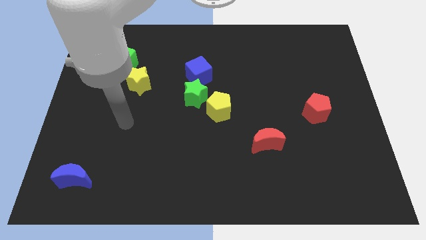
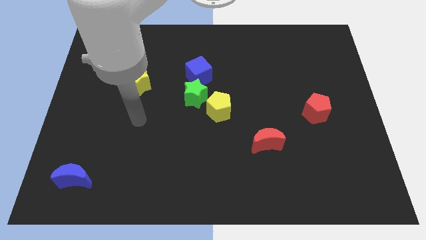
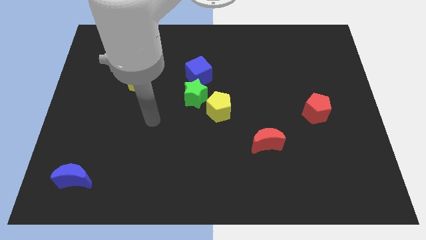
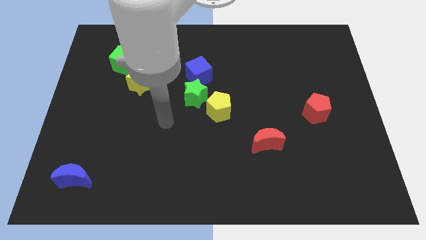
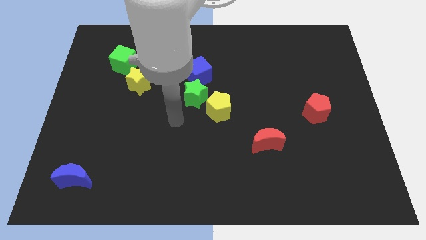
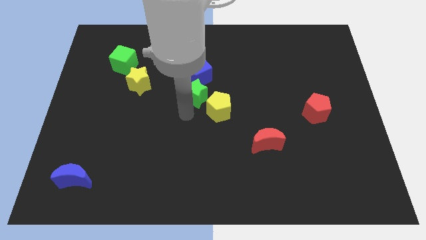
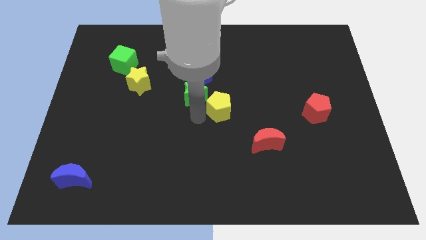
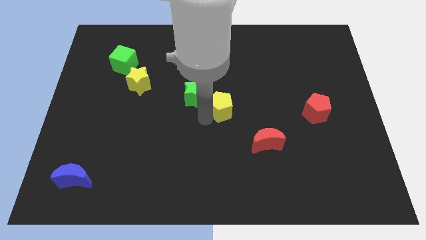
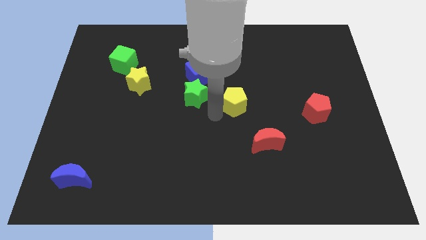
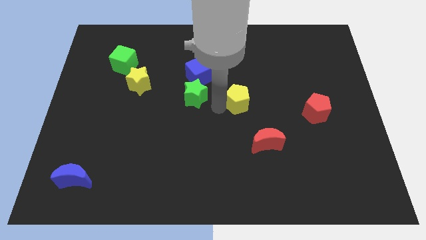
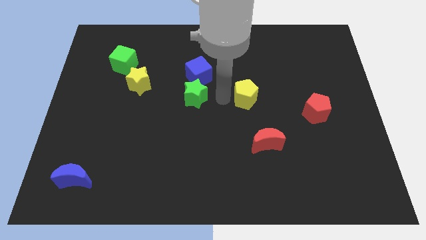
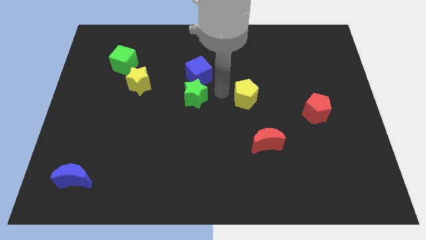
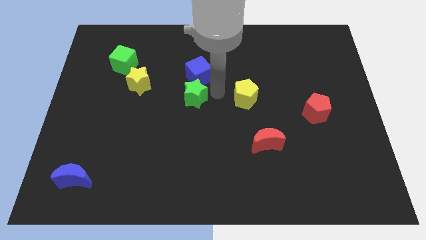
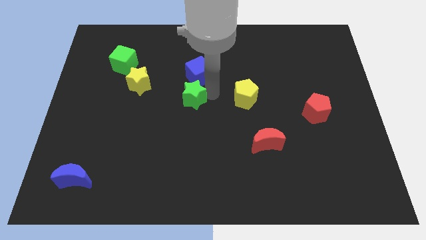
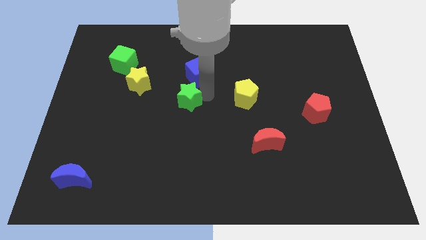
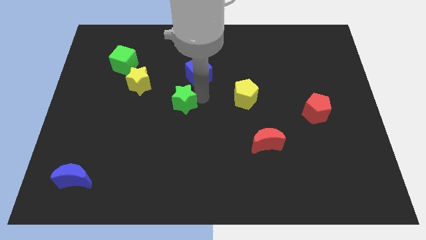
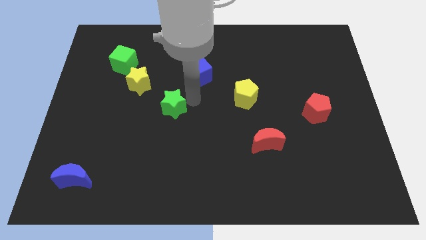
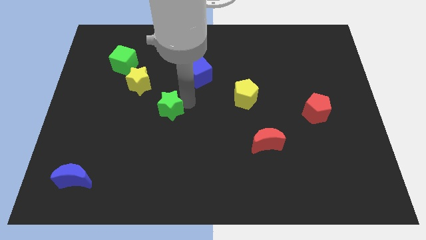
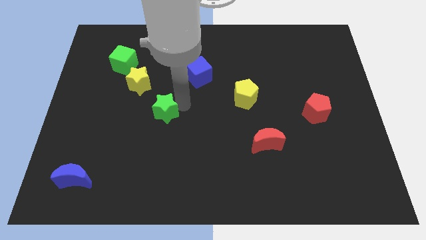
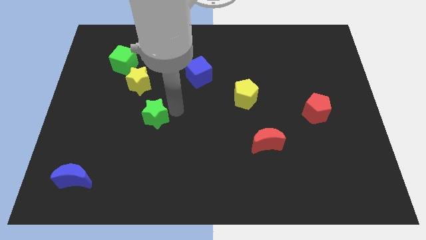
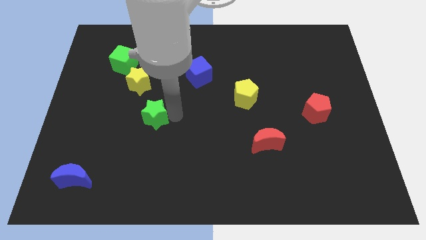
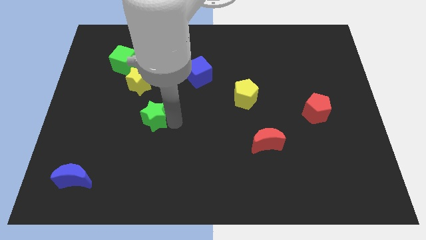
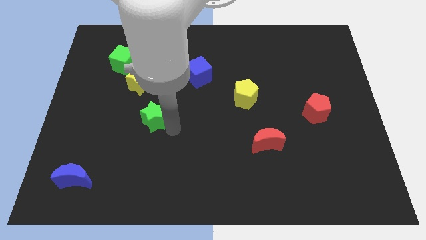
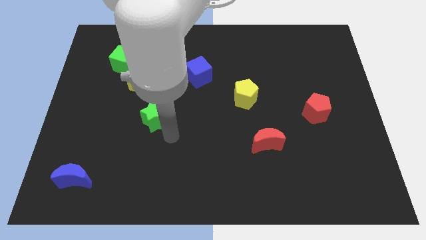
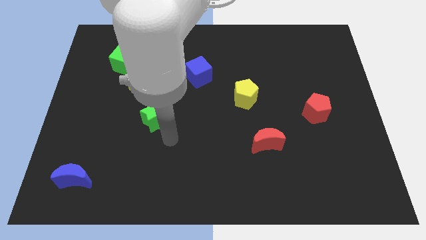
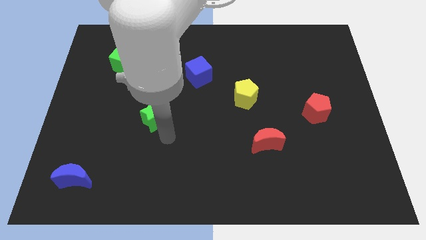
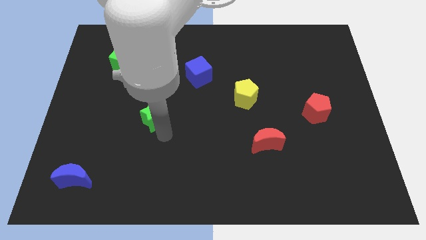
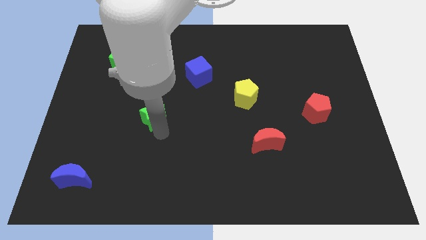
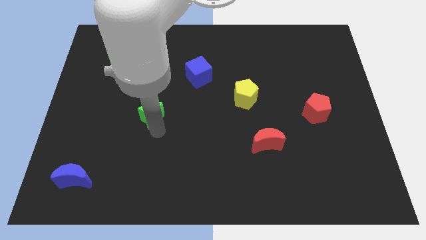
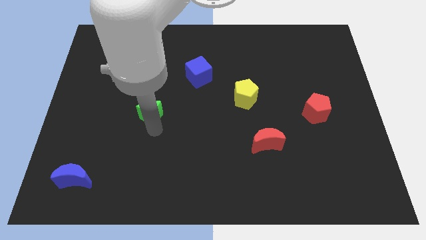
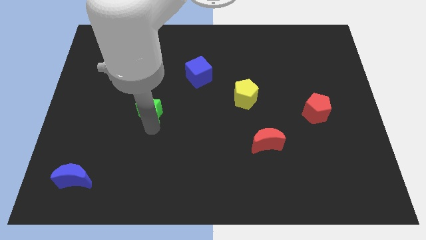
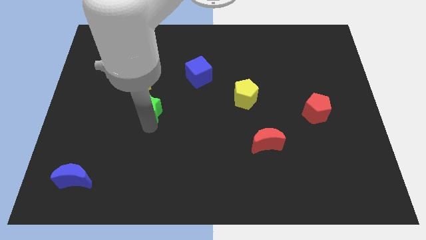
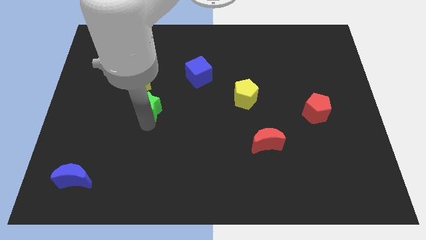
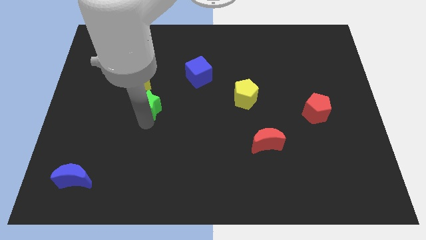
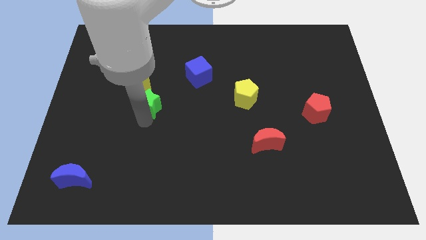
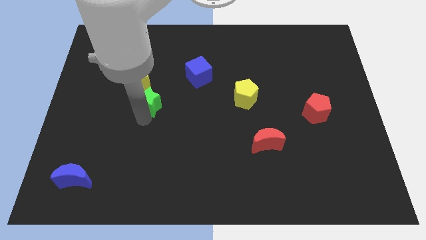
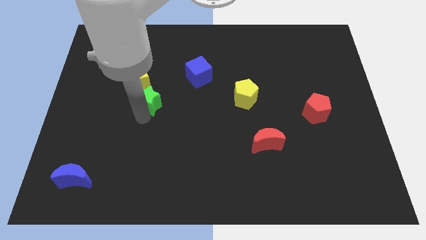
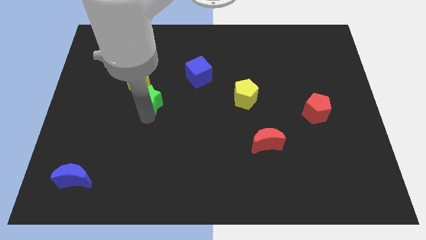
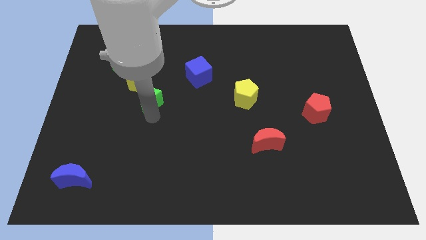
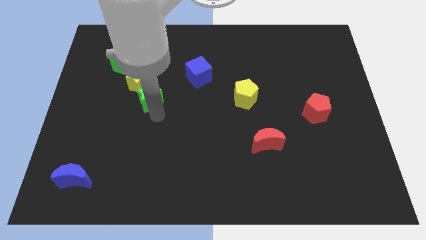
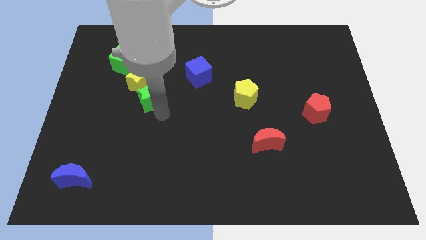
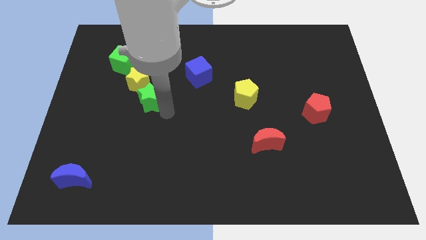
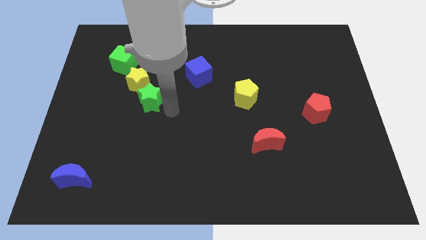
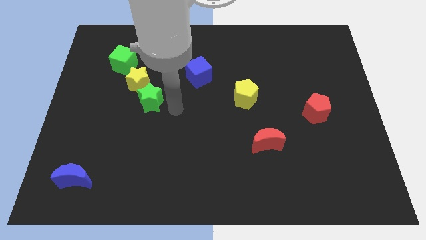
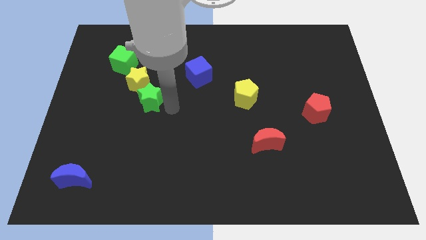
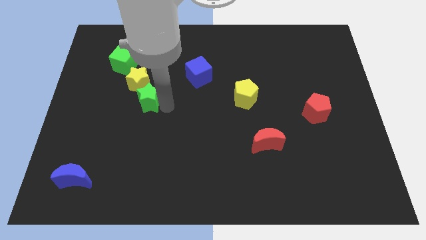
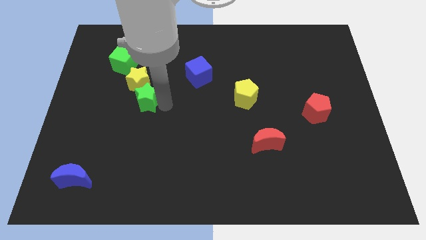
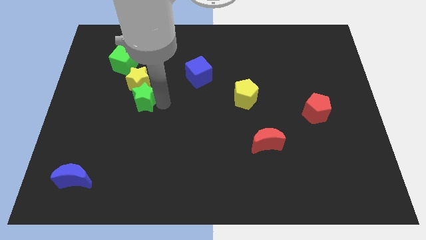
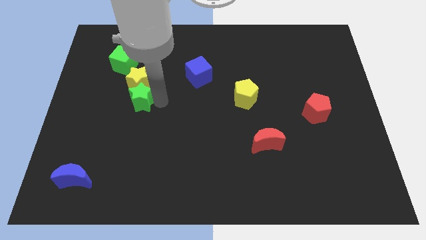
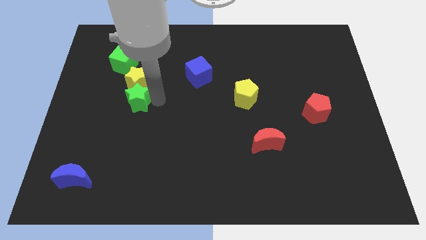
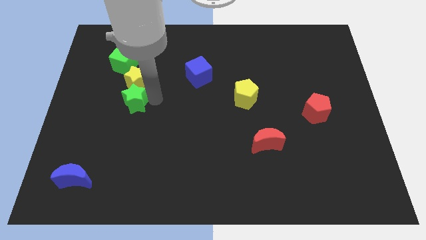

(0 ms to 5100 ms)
push the green star to the bottom of the green cube

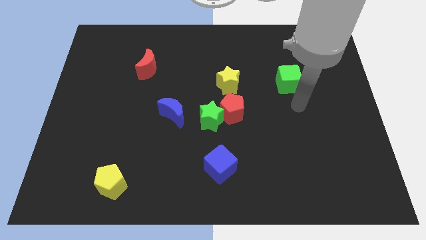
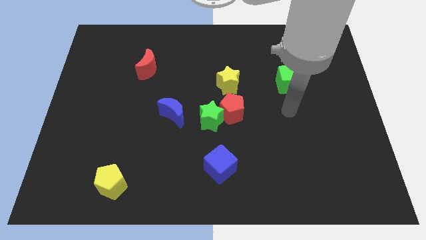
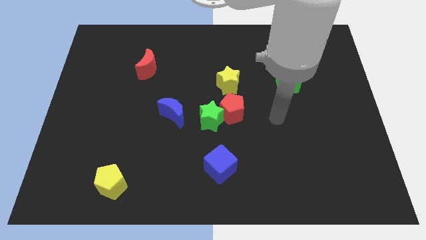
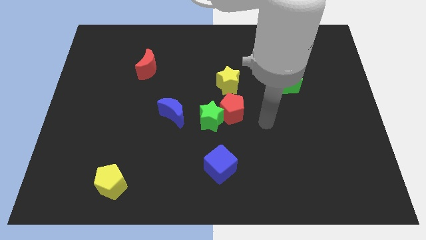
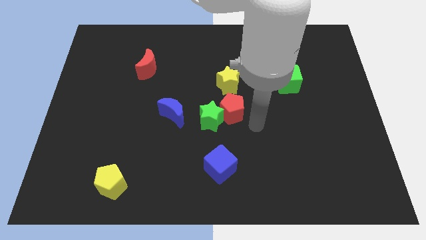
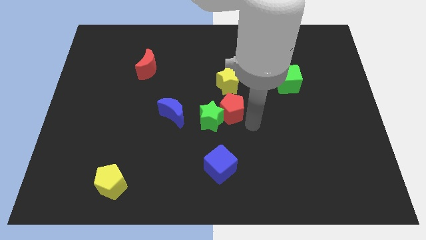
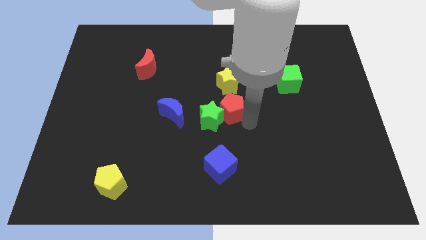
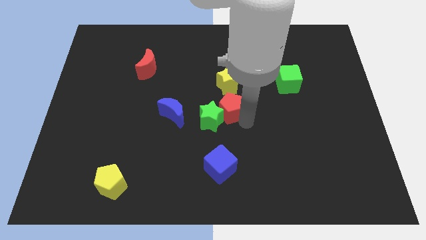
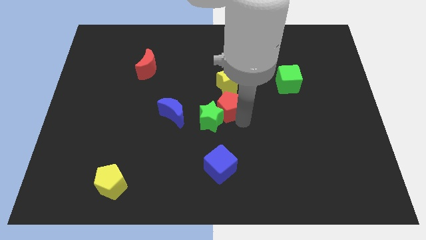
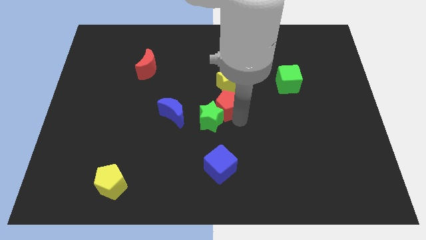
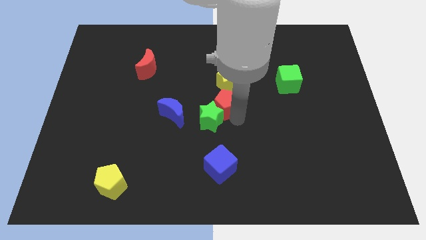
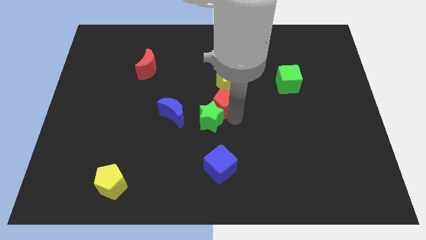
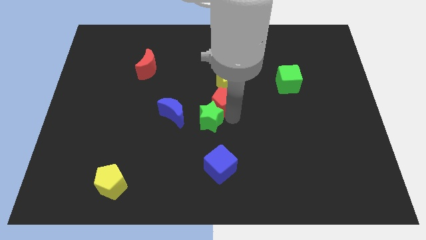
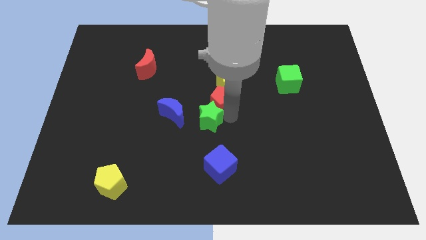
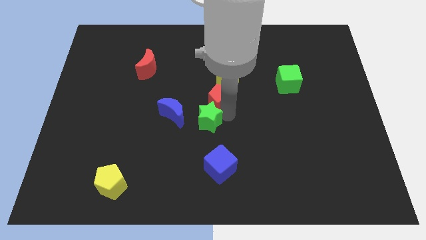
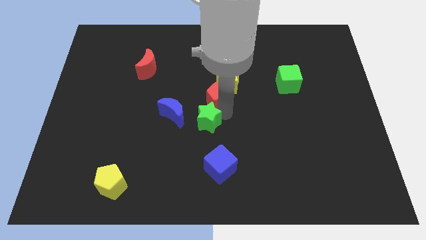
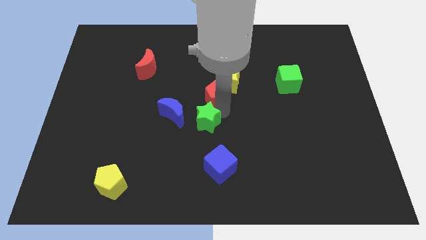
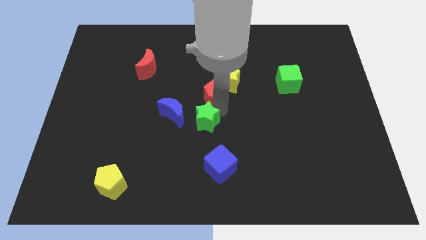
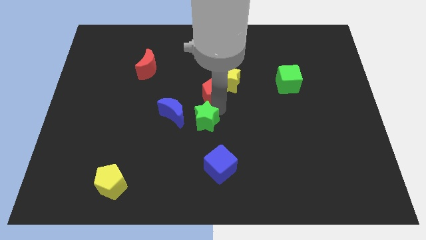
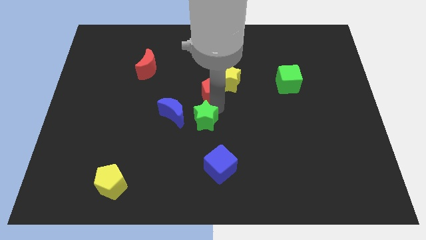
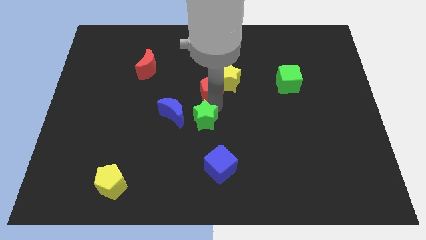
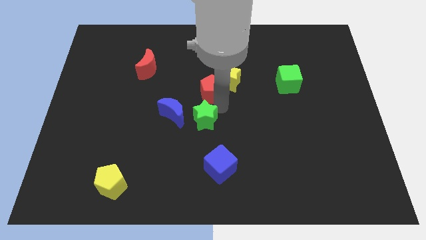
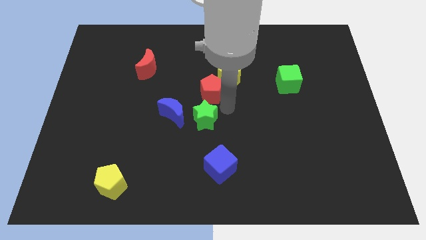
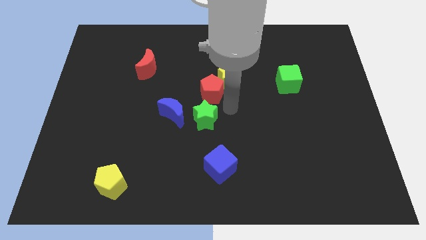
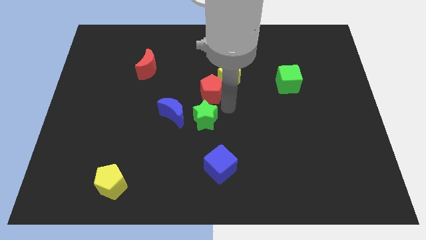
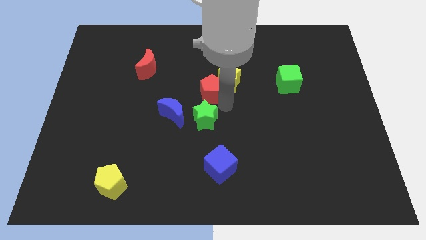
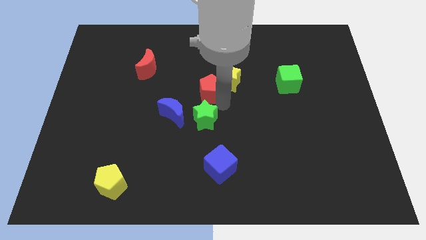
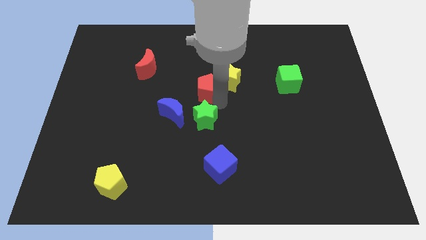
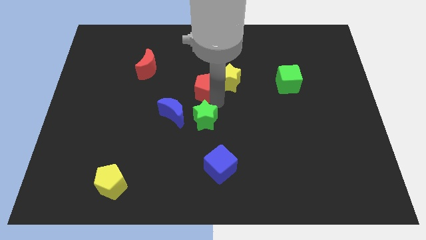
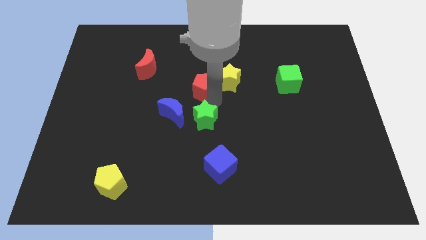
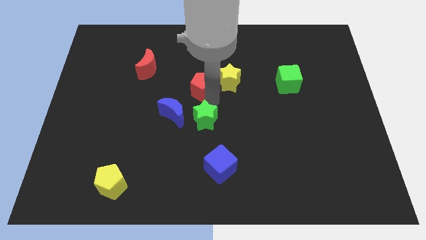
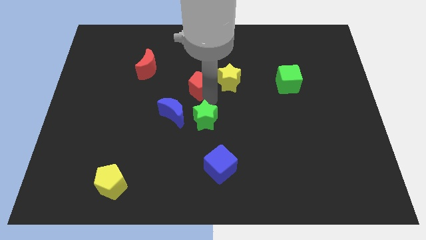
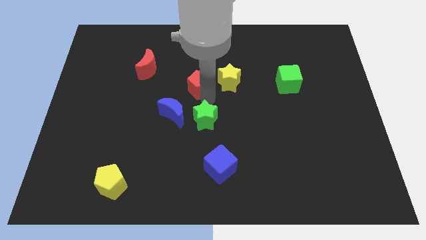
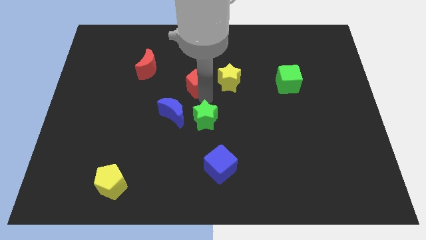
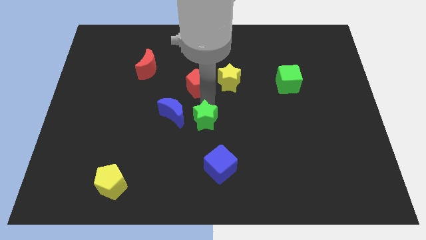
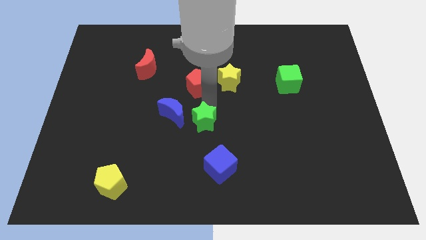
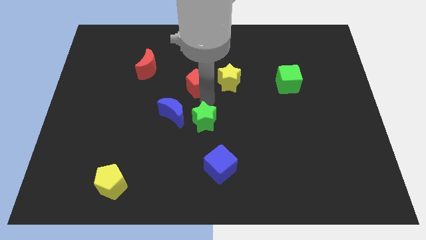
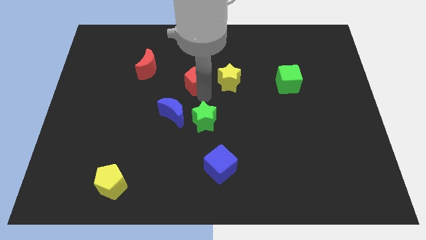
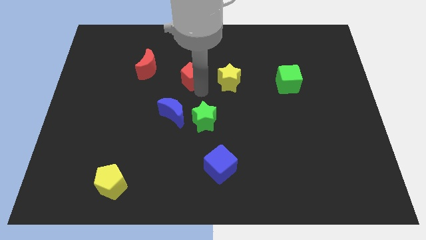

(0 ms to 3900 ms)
put the red pentagon right of the red moon
